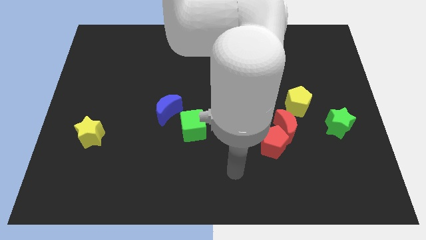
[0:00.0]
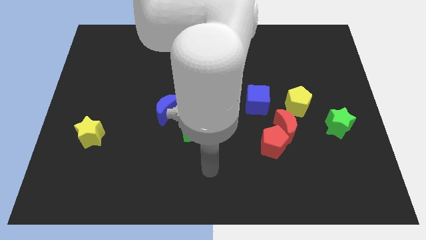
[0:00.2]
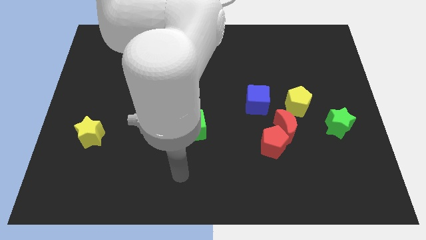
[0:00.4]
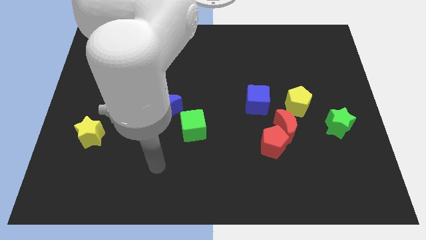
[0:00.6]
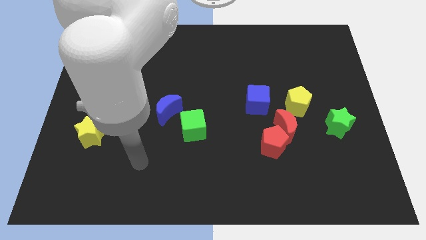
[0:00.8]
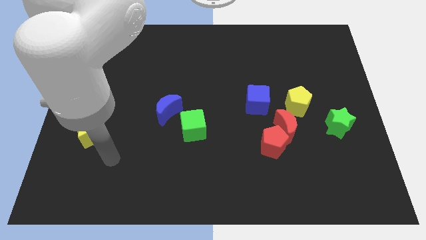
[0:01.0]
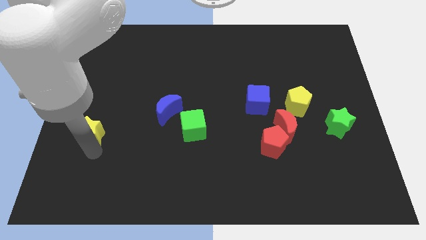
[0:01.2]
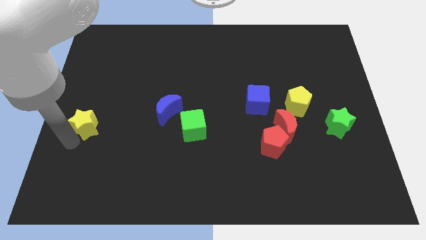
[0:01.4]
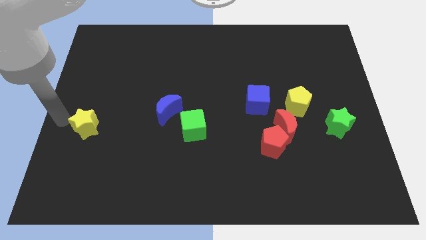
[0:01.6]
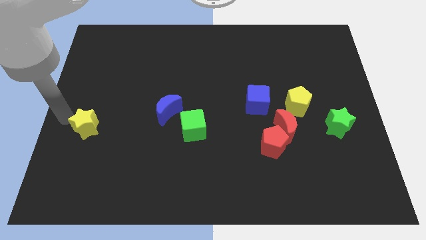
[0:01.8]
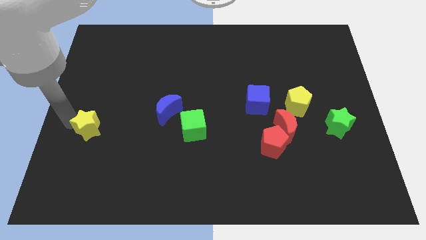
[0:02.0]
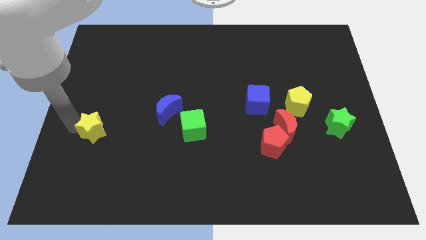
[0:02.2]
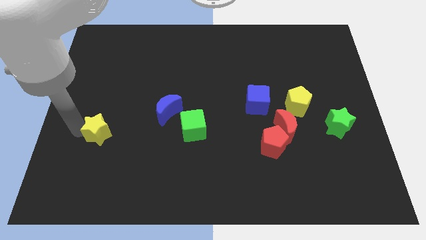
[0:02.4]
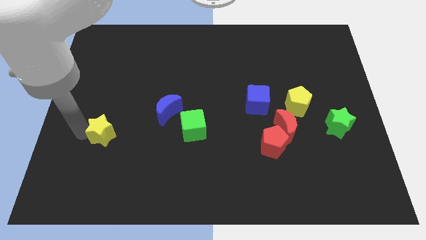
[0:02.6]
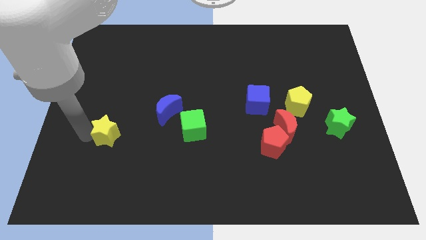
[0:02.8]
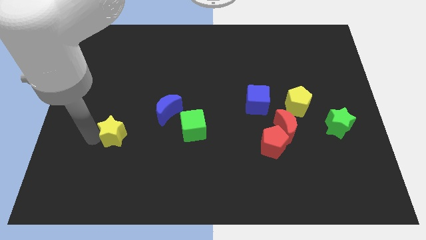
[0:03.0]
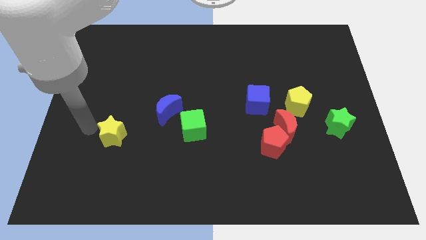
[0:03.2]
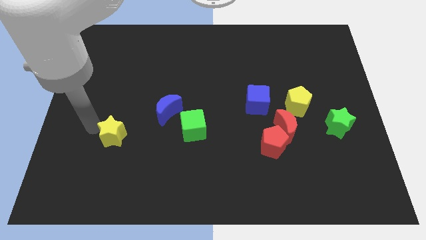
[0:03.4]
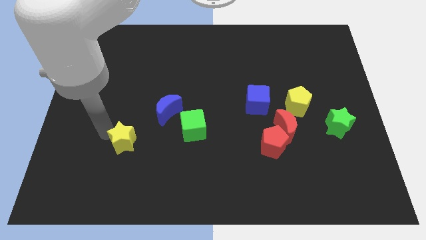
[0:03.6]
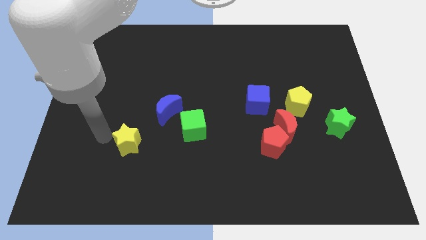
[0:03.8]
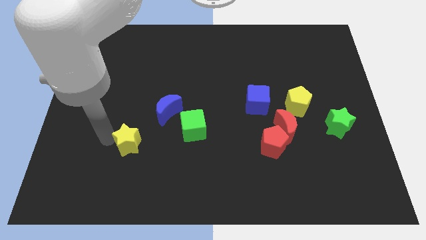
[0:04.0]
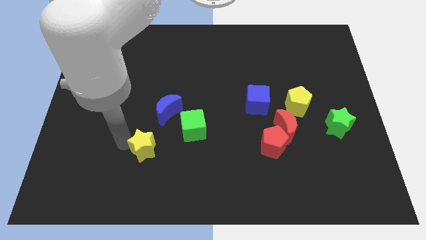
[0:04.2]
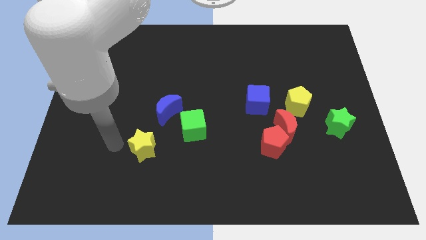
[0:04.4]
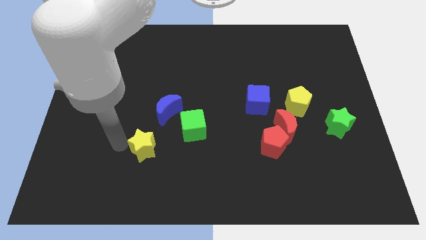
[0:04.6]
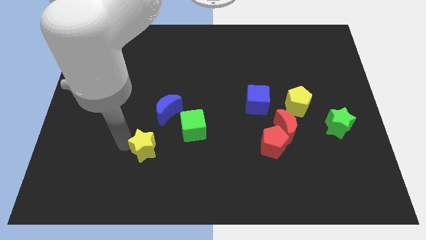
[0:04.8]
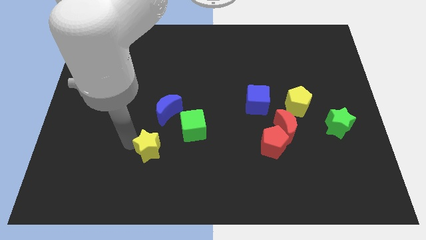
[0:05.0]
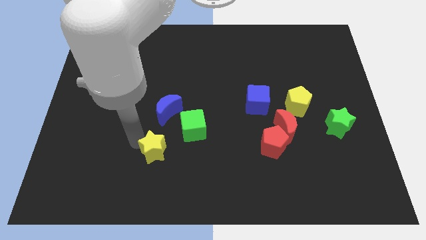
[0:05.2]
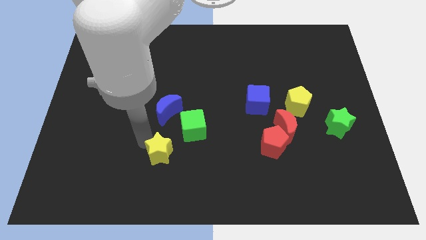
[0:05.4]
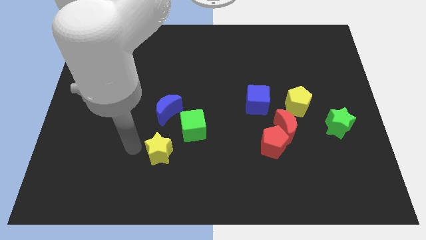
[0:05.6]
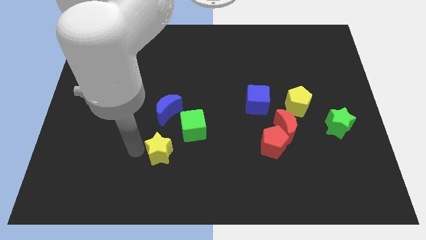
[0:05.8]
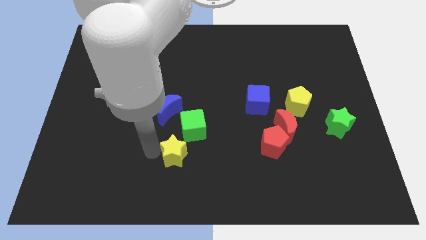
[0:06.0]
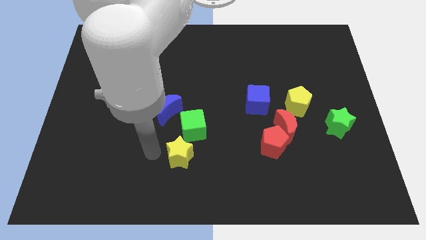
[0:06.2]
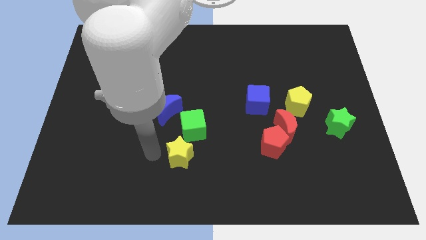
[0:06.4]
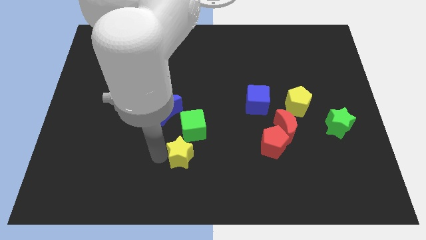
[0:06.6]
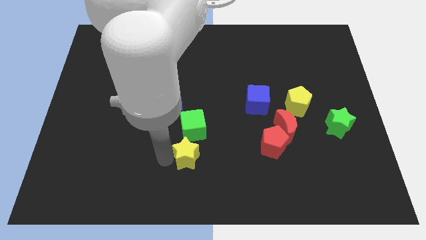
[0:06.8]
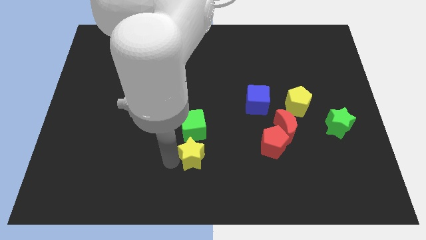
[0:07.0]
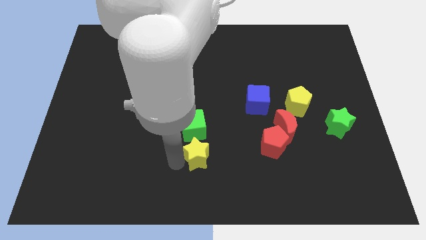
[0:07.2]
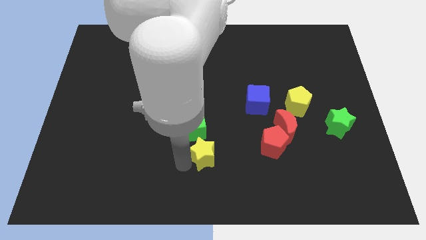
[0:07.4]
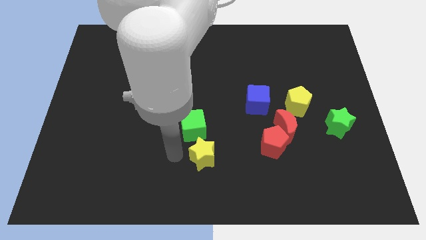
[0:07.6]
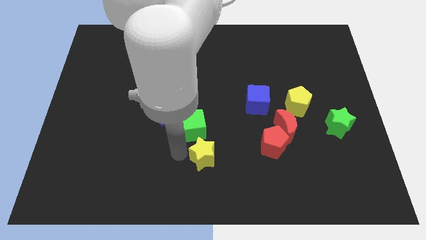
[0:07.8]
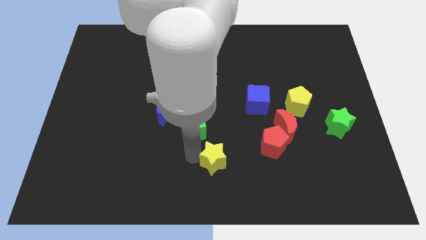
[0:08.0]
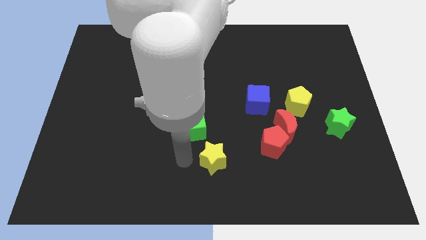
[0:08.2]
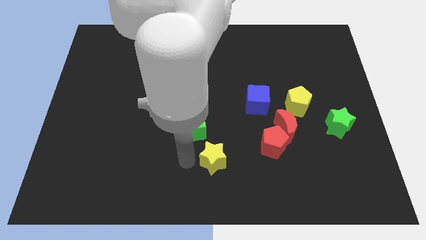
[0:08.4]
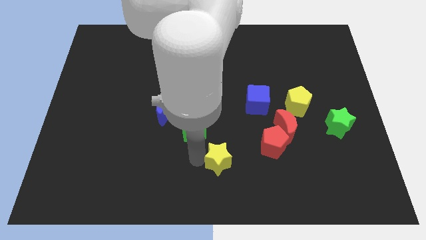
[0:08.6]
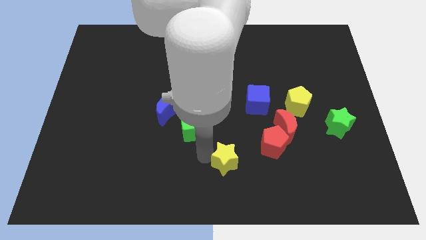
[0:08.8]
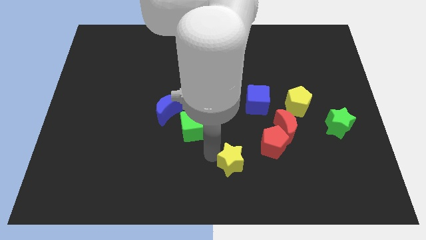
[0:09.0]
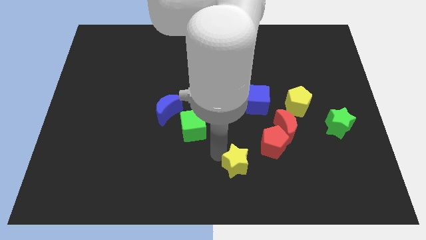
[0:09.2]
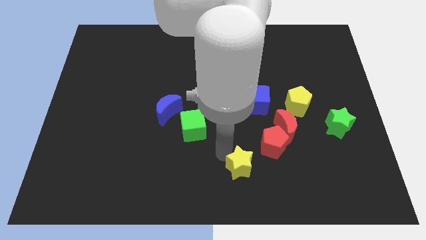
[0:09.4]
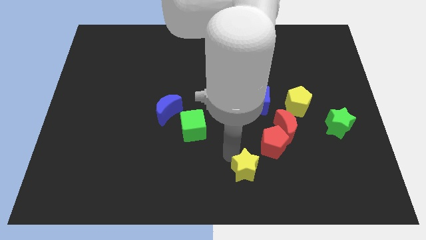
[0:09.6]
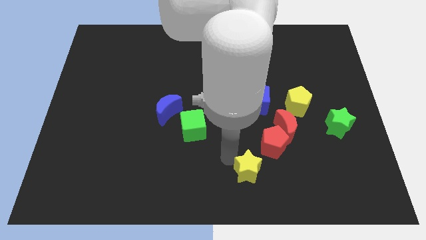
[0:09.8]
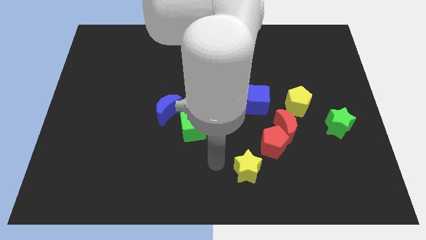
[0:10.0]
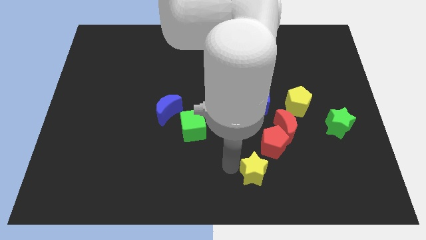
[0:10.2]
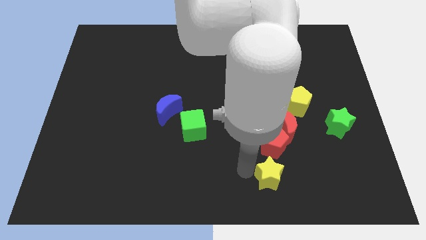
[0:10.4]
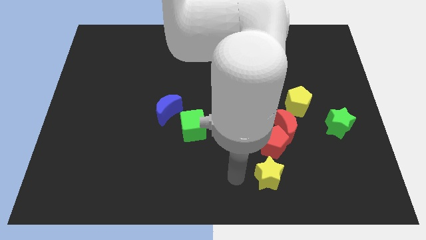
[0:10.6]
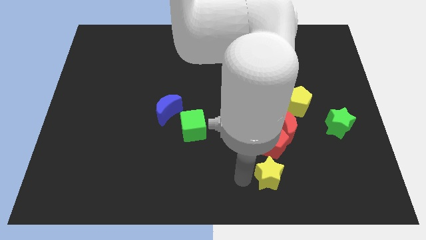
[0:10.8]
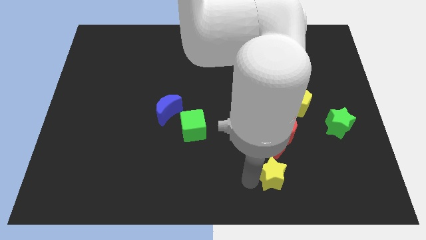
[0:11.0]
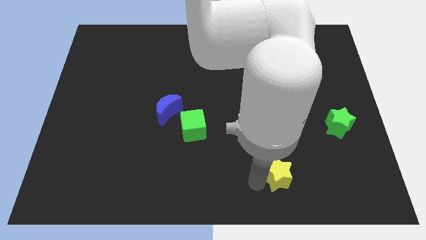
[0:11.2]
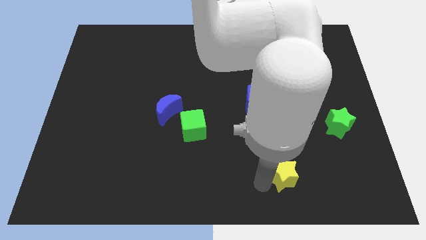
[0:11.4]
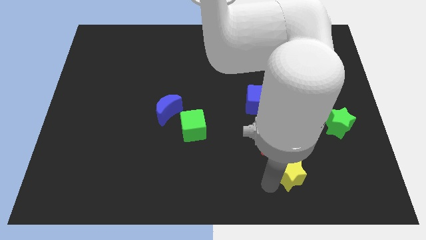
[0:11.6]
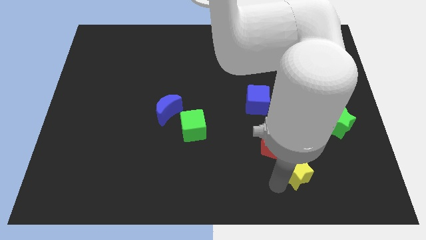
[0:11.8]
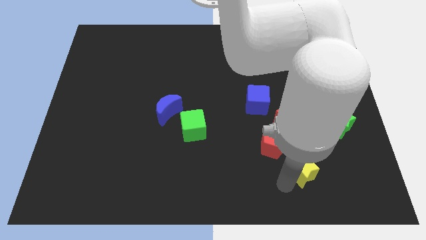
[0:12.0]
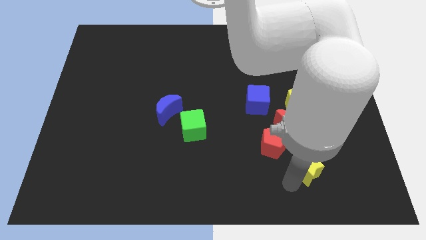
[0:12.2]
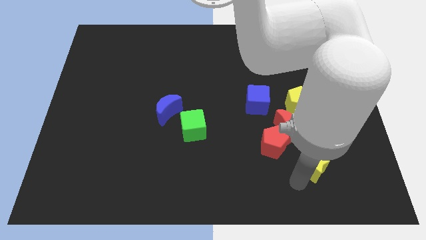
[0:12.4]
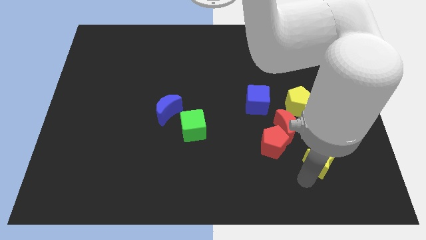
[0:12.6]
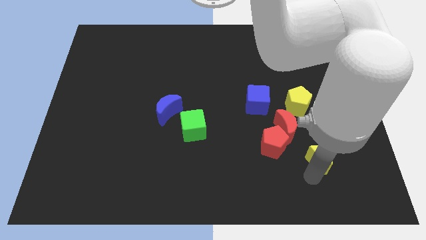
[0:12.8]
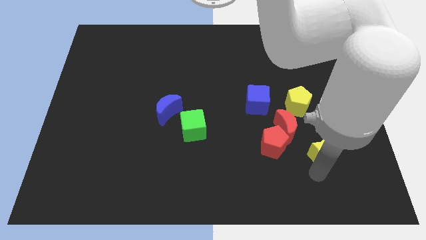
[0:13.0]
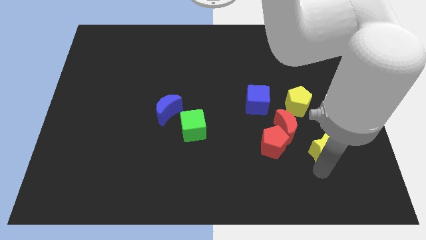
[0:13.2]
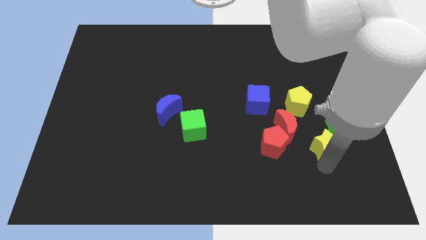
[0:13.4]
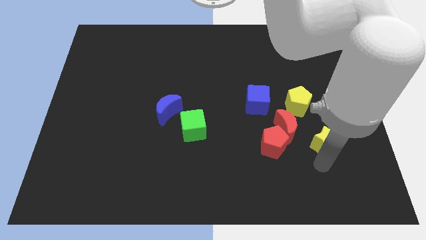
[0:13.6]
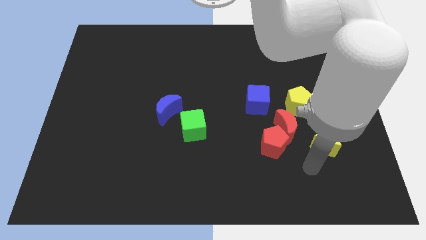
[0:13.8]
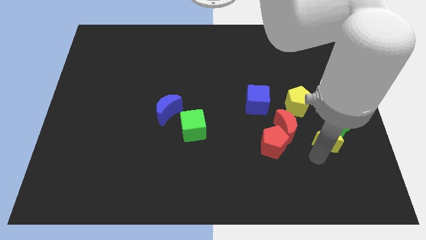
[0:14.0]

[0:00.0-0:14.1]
slide the yellow star close to the green star

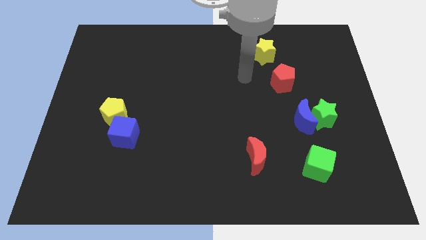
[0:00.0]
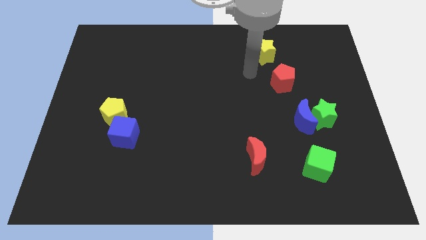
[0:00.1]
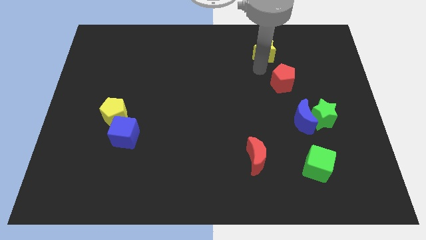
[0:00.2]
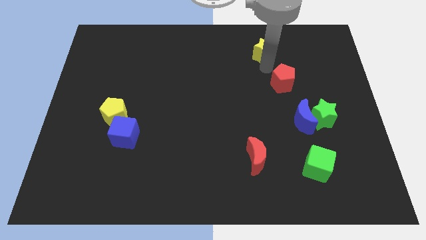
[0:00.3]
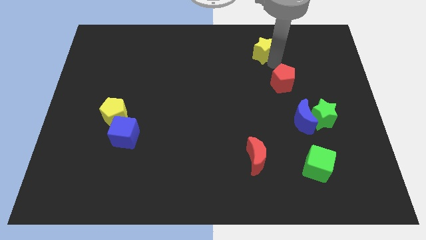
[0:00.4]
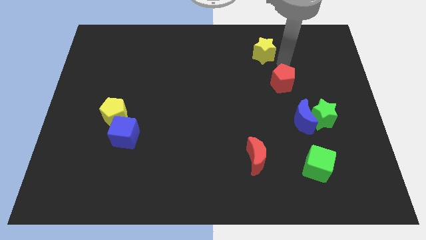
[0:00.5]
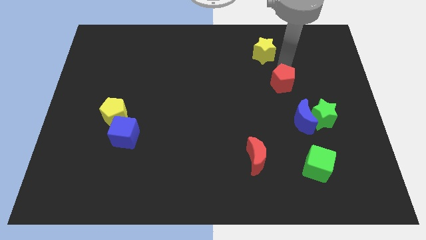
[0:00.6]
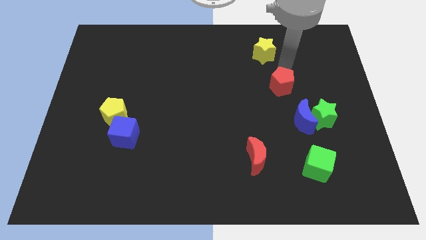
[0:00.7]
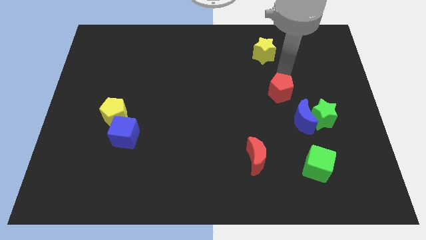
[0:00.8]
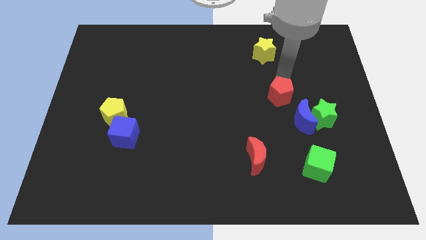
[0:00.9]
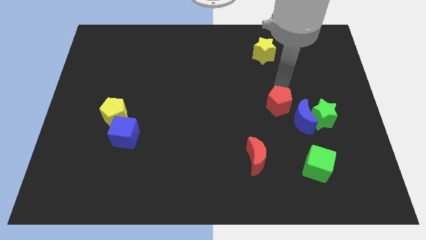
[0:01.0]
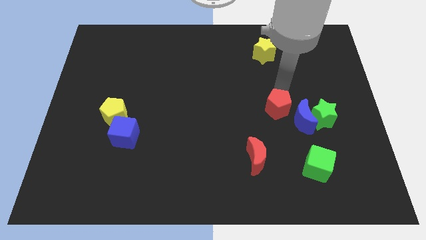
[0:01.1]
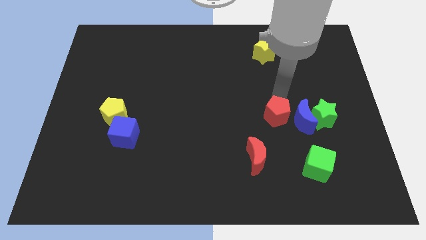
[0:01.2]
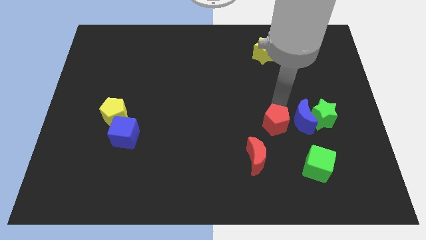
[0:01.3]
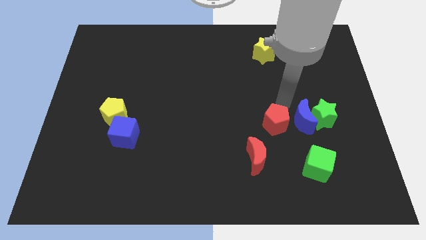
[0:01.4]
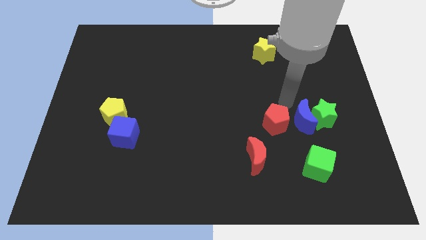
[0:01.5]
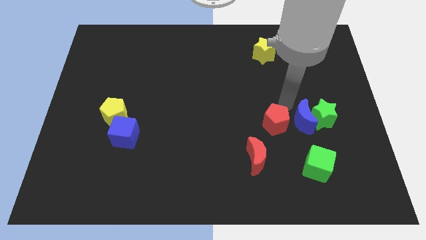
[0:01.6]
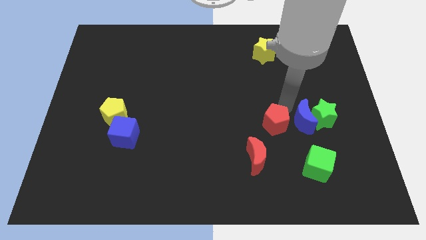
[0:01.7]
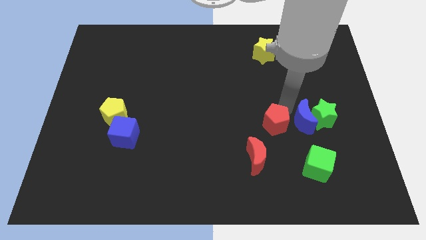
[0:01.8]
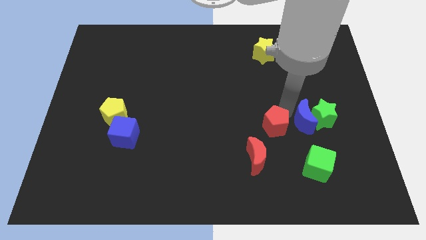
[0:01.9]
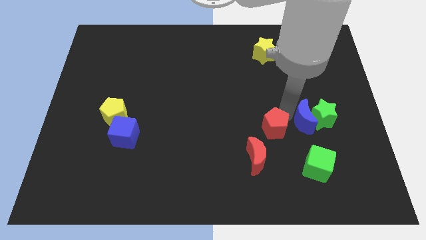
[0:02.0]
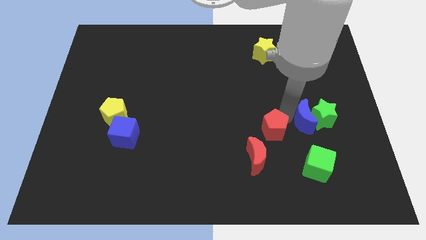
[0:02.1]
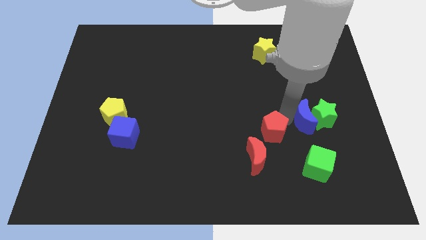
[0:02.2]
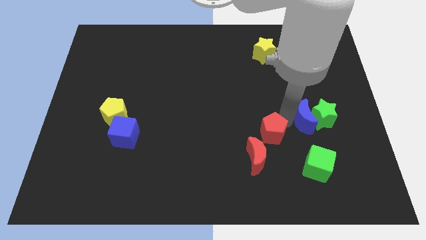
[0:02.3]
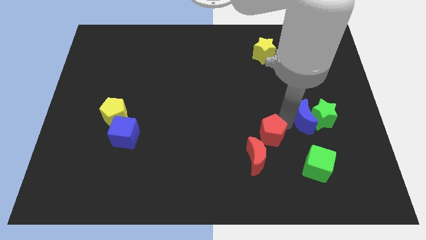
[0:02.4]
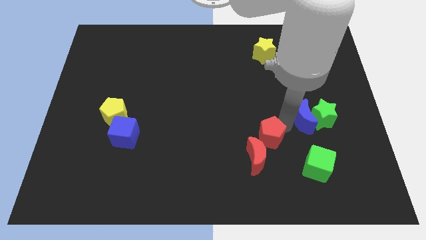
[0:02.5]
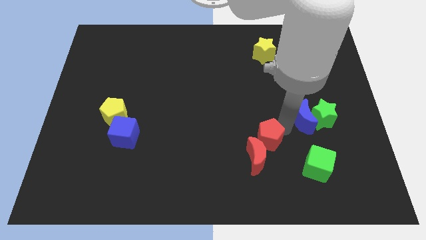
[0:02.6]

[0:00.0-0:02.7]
move the red pentagon close to the red moon
